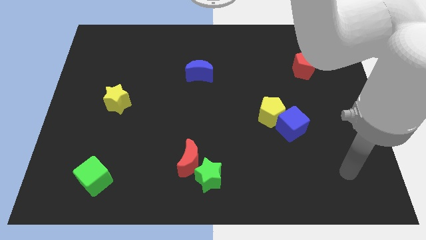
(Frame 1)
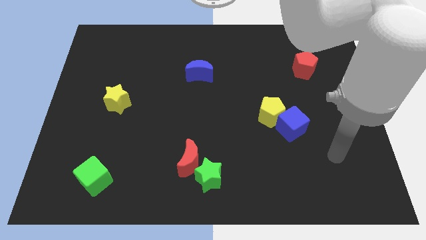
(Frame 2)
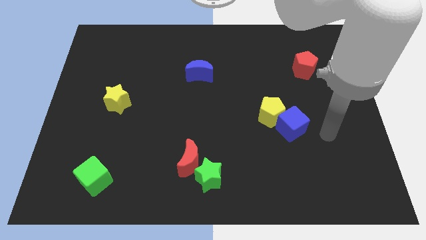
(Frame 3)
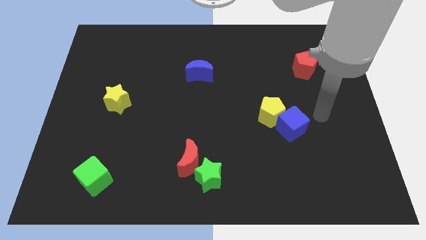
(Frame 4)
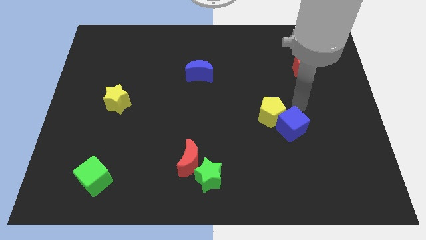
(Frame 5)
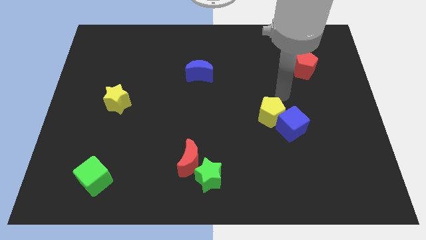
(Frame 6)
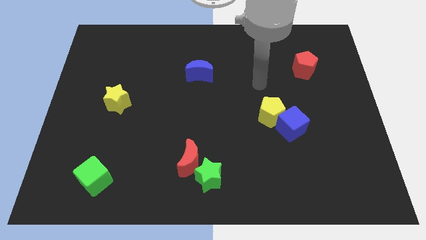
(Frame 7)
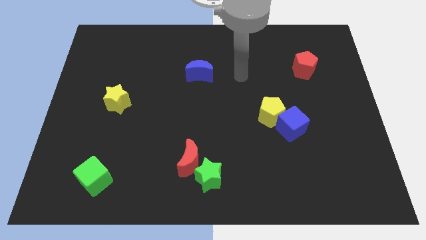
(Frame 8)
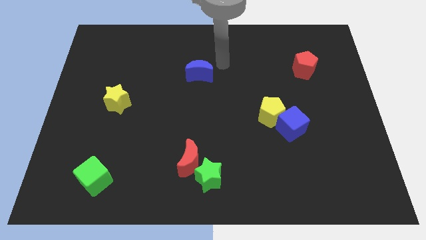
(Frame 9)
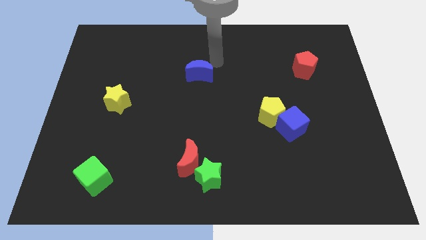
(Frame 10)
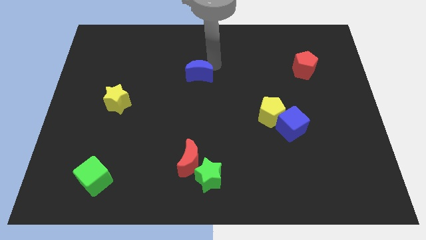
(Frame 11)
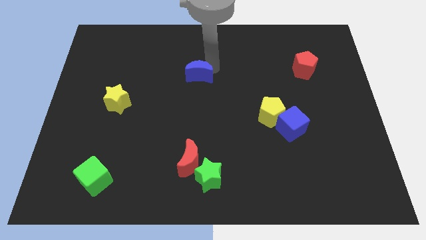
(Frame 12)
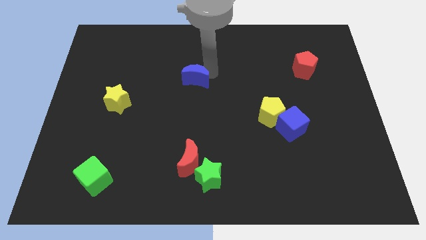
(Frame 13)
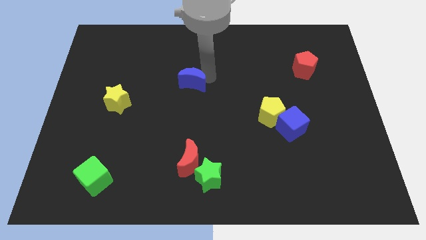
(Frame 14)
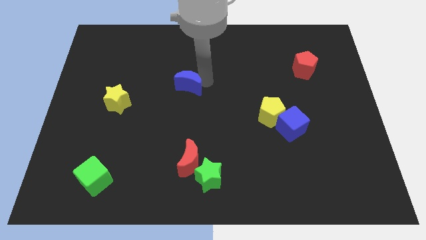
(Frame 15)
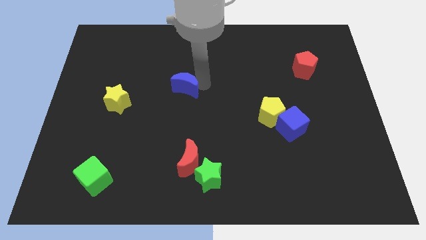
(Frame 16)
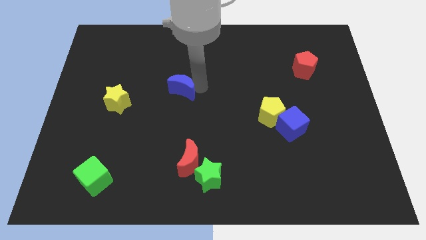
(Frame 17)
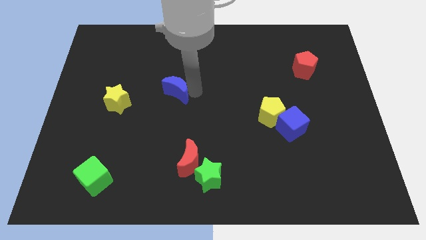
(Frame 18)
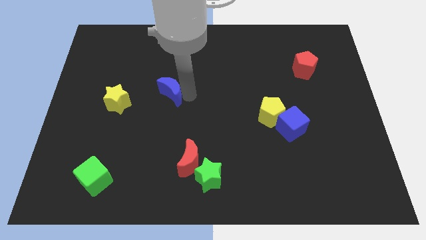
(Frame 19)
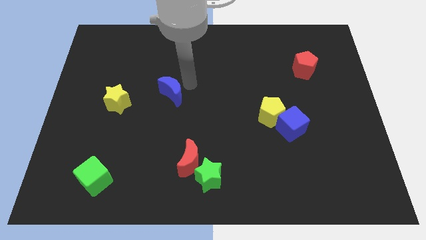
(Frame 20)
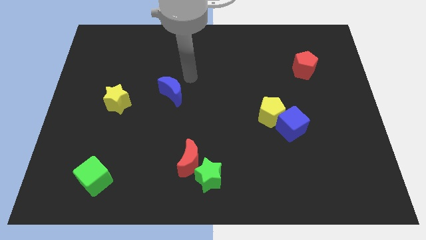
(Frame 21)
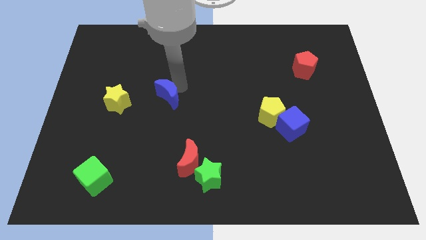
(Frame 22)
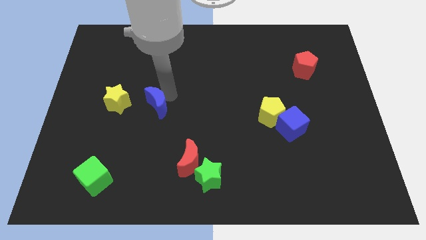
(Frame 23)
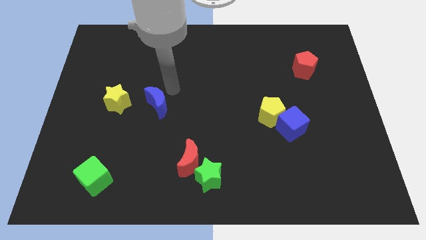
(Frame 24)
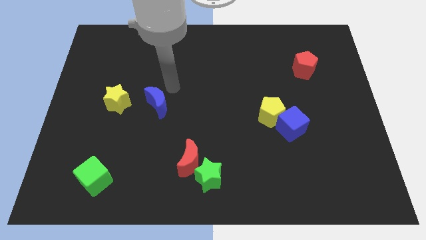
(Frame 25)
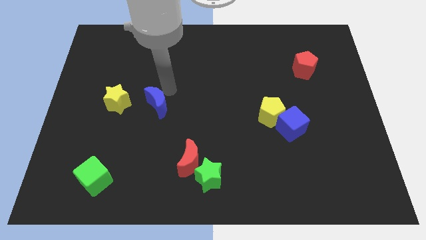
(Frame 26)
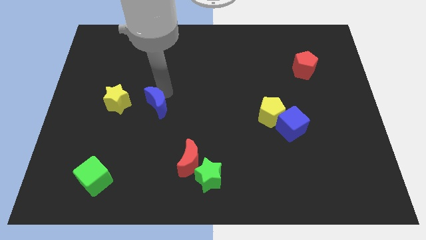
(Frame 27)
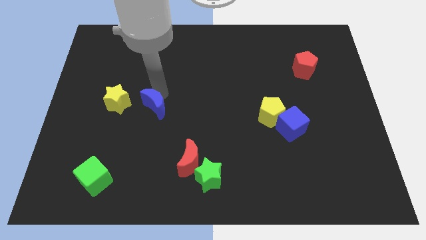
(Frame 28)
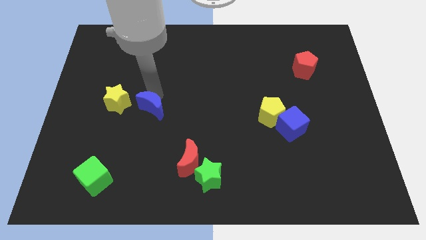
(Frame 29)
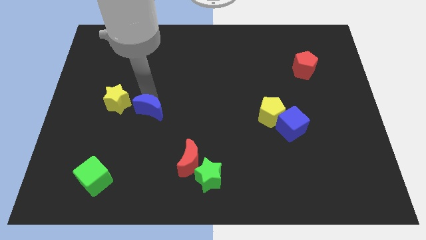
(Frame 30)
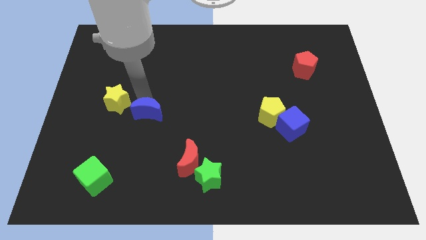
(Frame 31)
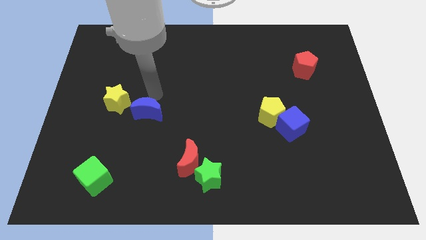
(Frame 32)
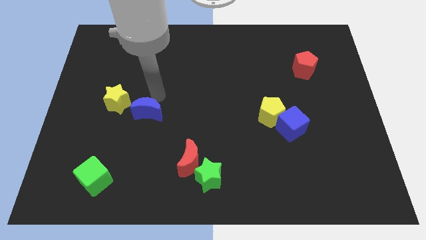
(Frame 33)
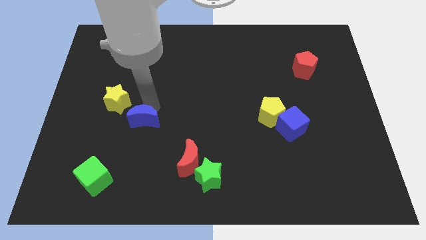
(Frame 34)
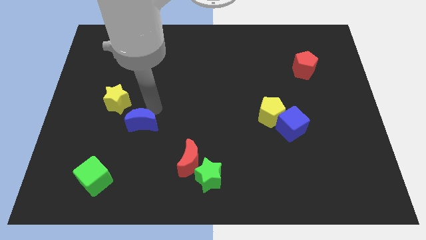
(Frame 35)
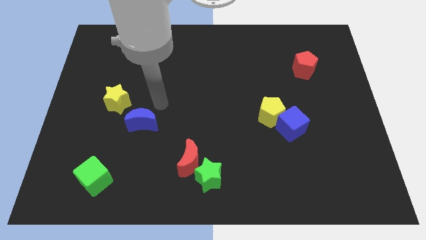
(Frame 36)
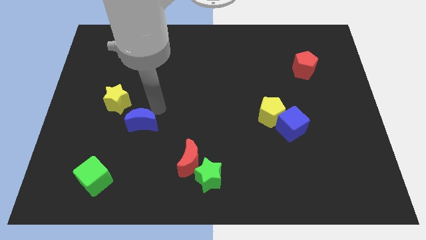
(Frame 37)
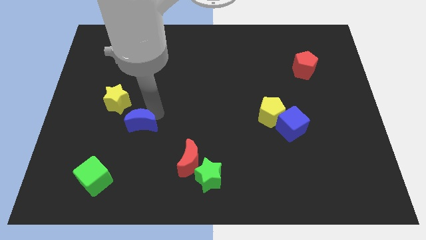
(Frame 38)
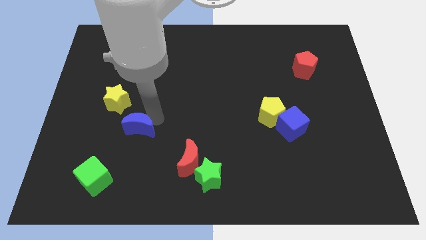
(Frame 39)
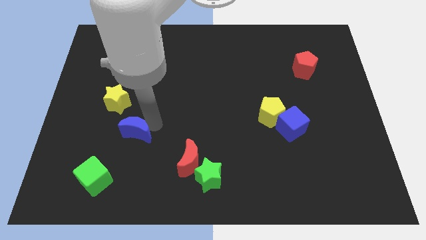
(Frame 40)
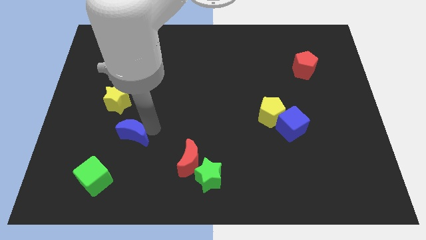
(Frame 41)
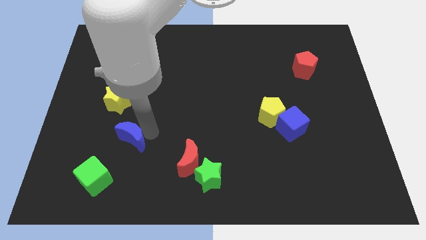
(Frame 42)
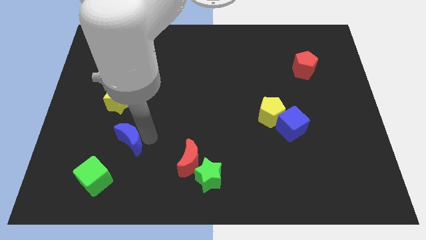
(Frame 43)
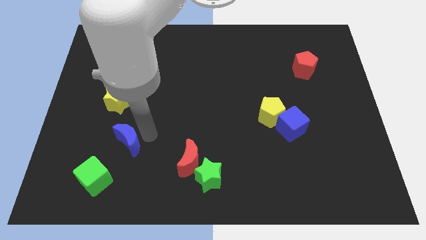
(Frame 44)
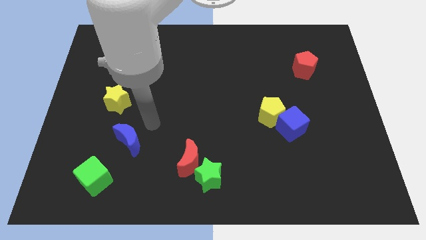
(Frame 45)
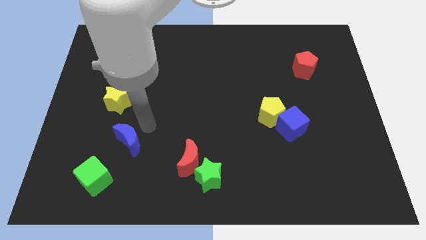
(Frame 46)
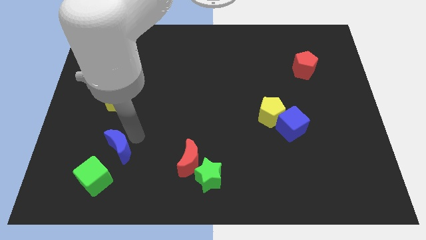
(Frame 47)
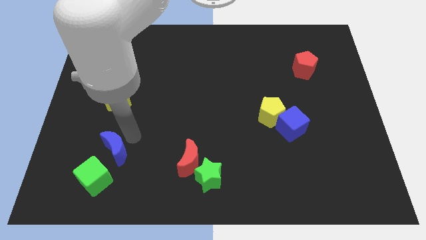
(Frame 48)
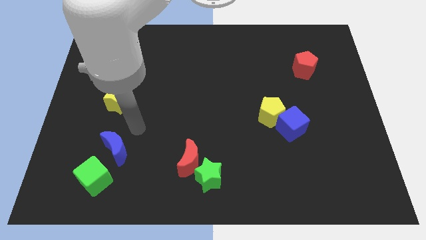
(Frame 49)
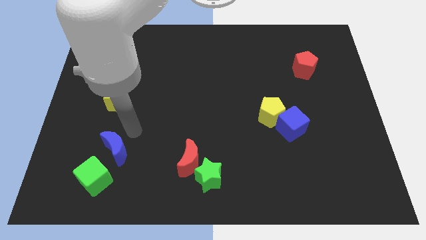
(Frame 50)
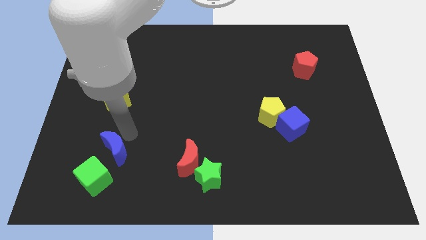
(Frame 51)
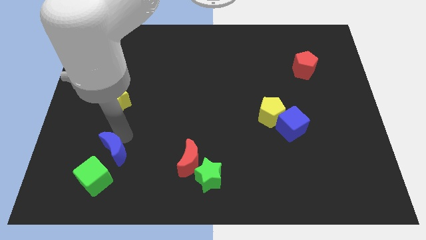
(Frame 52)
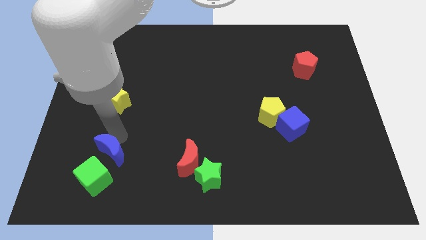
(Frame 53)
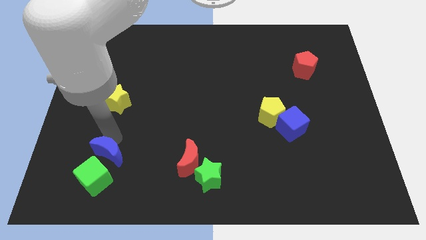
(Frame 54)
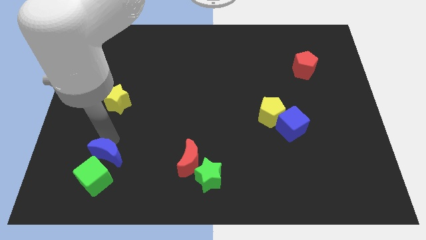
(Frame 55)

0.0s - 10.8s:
move the blue moon close to the green cube
